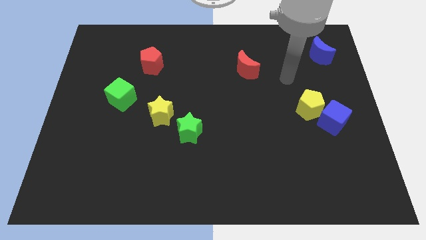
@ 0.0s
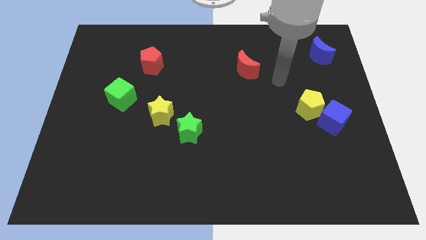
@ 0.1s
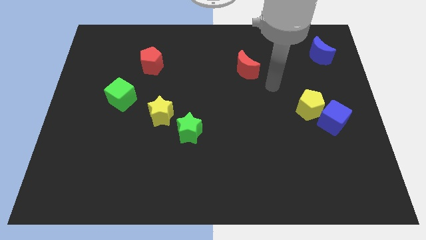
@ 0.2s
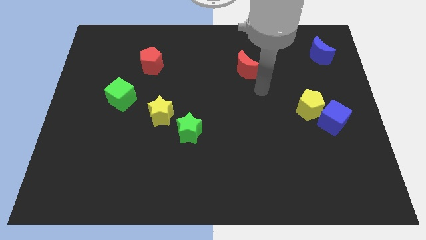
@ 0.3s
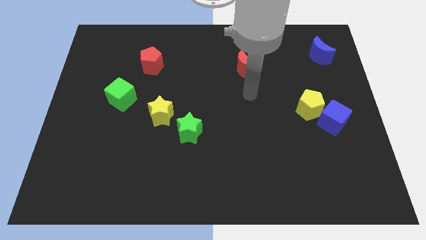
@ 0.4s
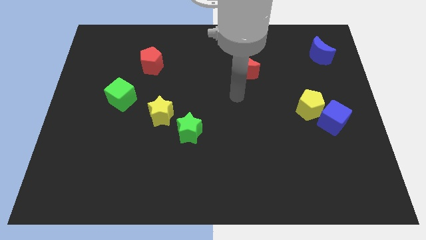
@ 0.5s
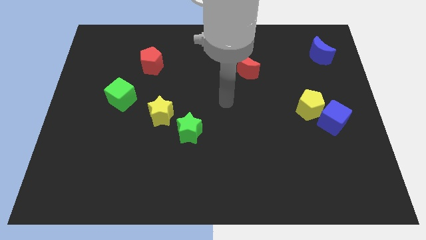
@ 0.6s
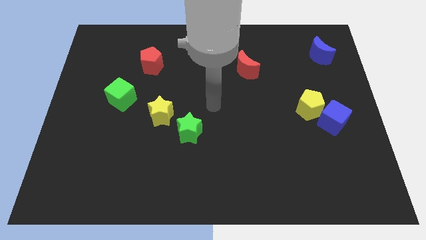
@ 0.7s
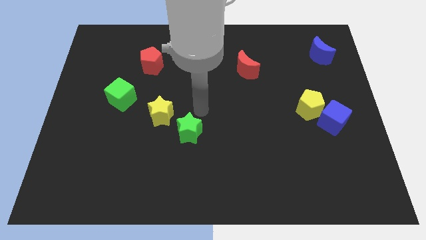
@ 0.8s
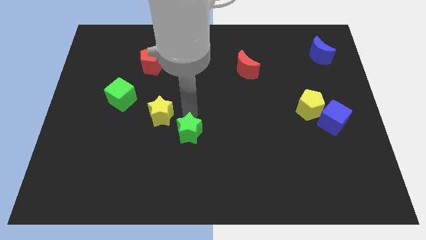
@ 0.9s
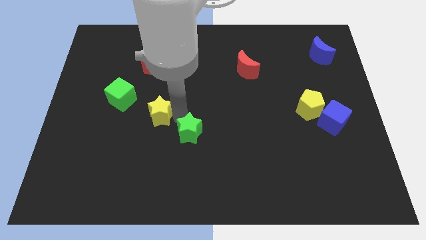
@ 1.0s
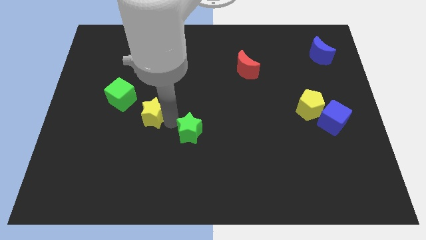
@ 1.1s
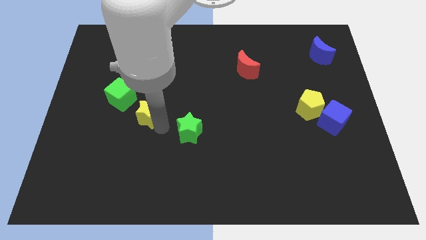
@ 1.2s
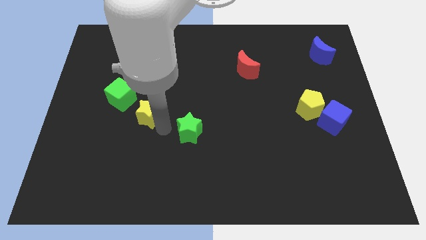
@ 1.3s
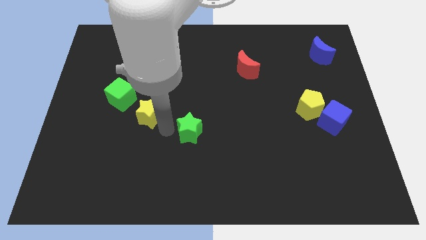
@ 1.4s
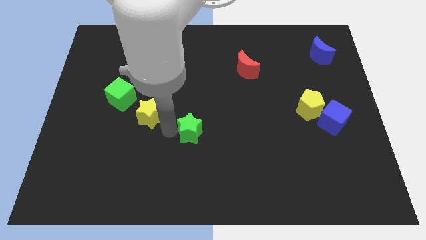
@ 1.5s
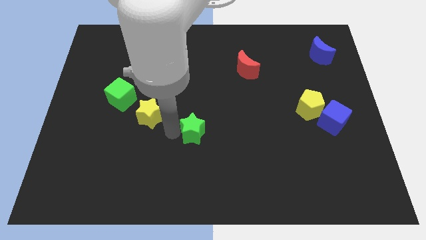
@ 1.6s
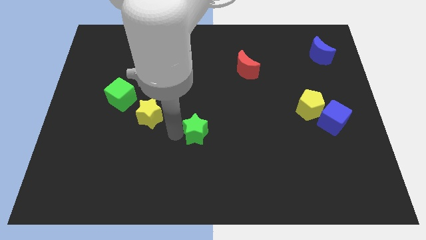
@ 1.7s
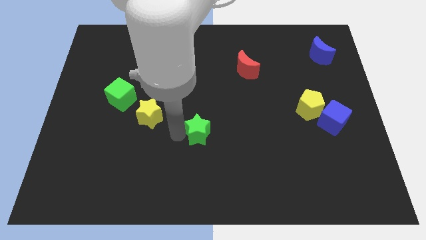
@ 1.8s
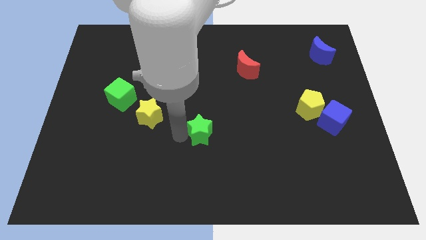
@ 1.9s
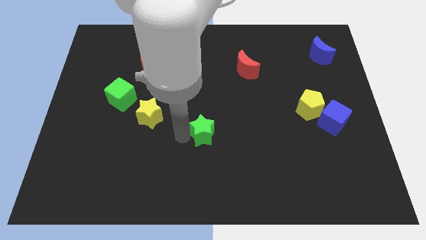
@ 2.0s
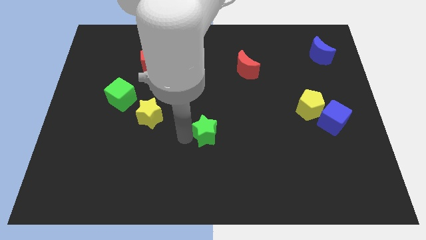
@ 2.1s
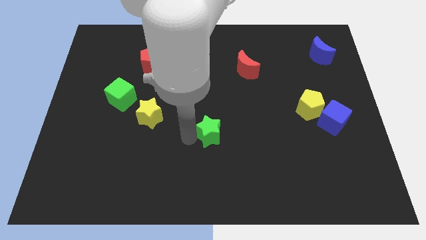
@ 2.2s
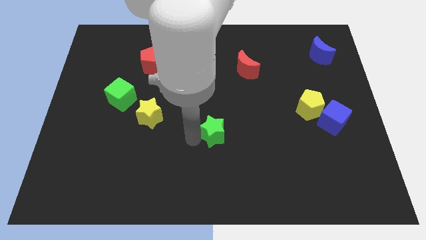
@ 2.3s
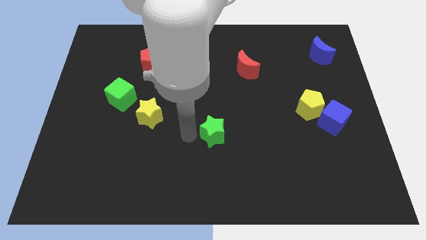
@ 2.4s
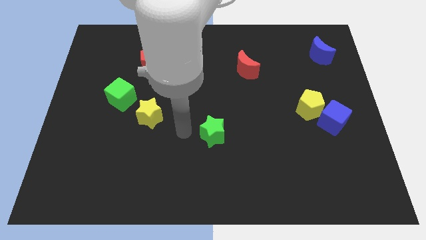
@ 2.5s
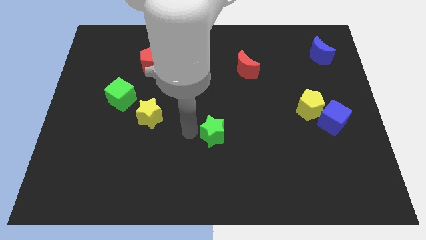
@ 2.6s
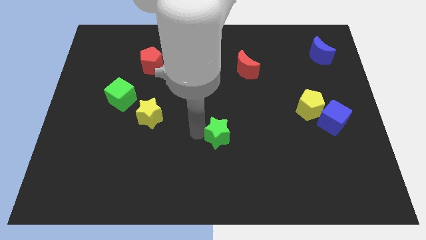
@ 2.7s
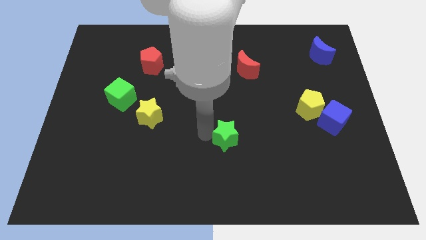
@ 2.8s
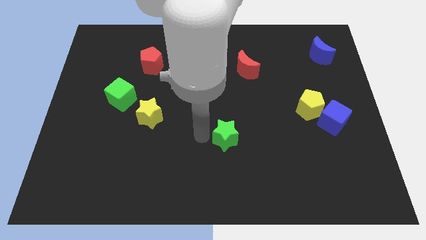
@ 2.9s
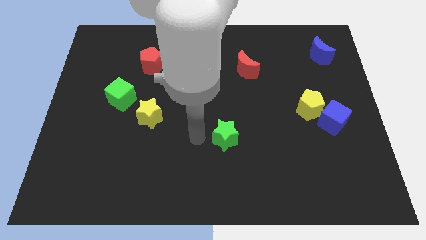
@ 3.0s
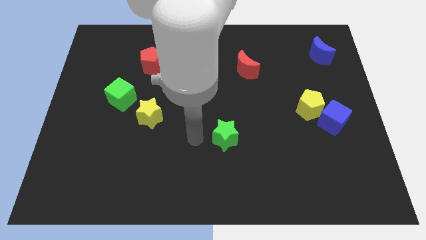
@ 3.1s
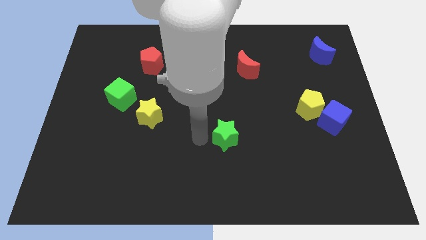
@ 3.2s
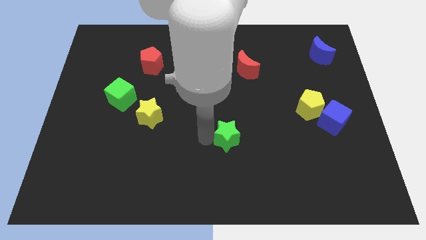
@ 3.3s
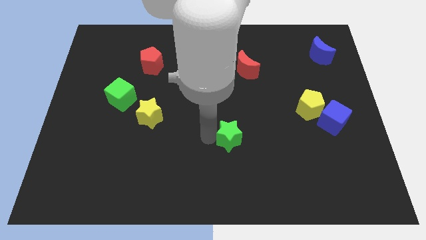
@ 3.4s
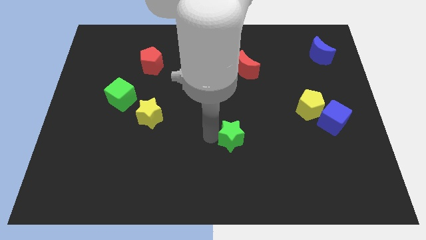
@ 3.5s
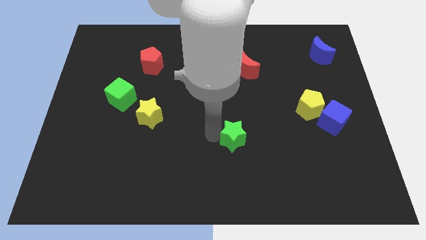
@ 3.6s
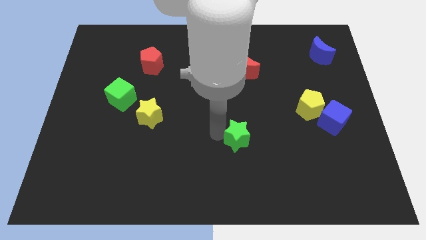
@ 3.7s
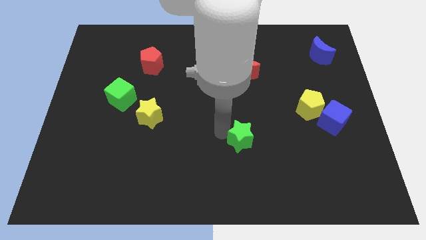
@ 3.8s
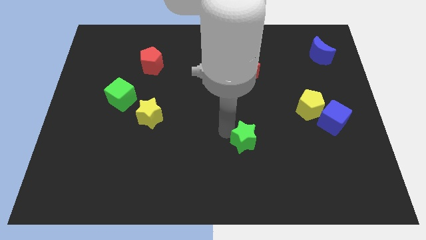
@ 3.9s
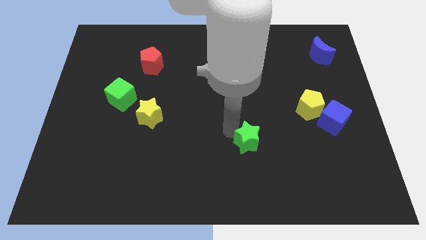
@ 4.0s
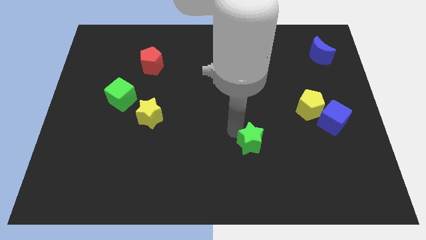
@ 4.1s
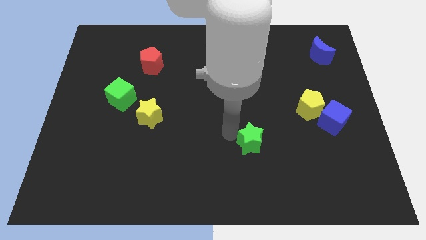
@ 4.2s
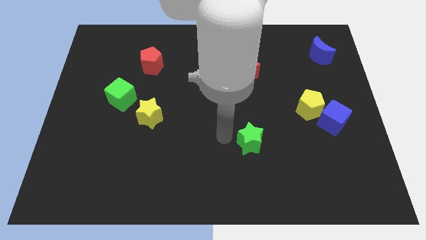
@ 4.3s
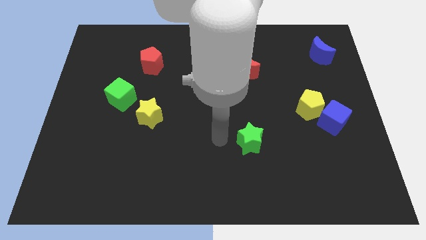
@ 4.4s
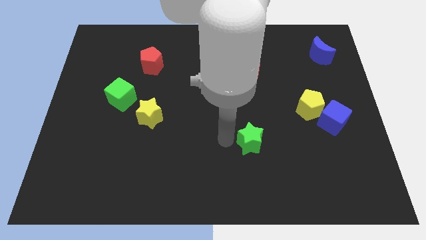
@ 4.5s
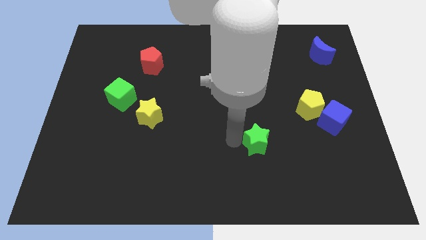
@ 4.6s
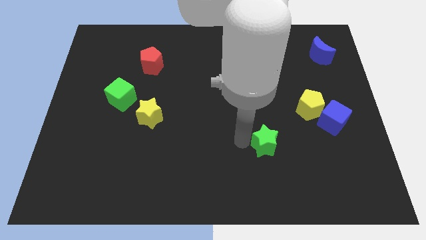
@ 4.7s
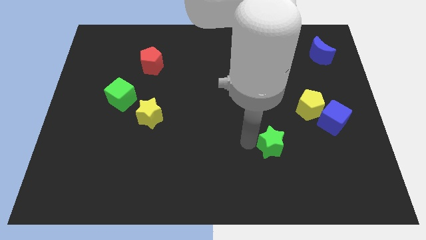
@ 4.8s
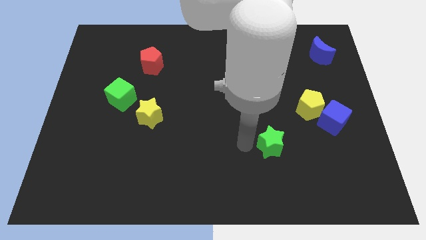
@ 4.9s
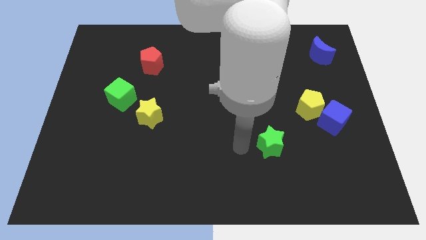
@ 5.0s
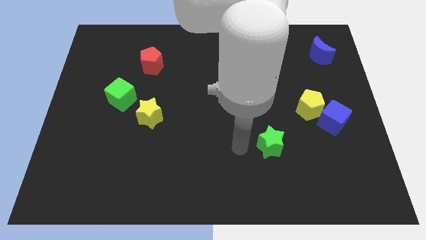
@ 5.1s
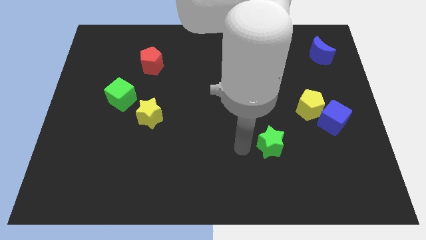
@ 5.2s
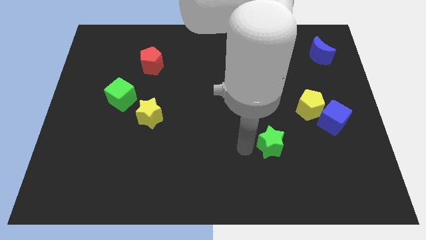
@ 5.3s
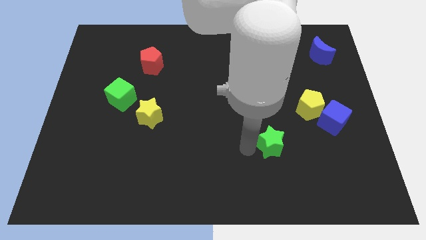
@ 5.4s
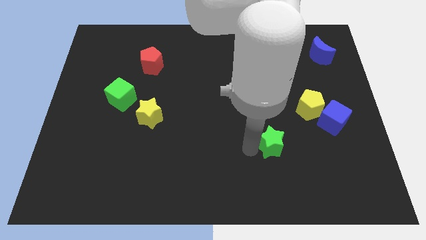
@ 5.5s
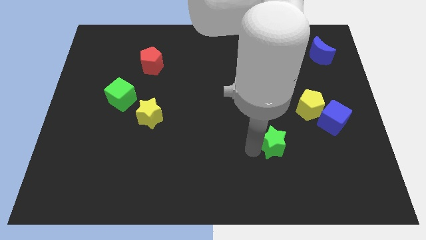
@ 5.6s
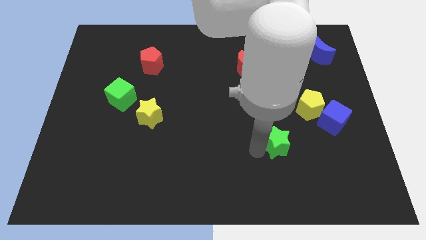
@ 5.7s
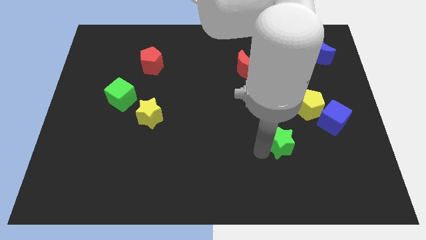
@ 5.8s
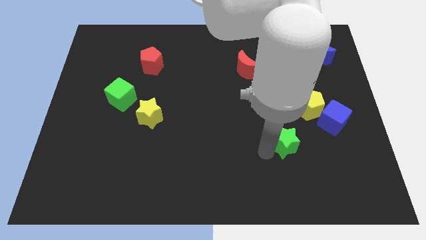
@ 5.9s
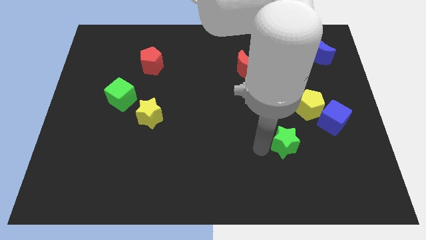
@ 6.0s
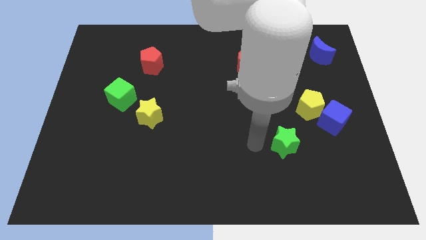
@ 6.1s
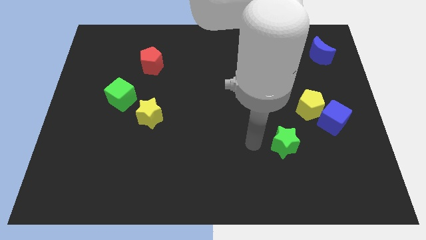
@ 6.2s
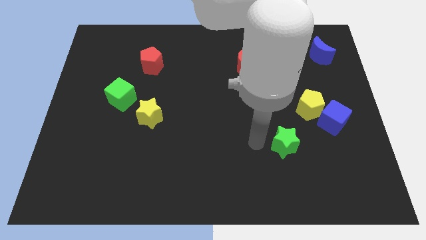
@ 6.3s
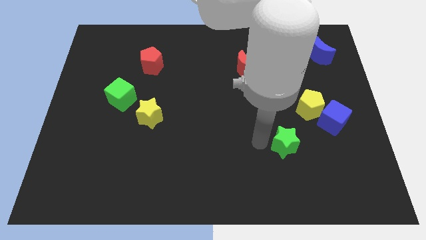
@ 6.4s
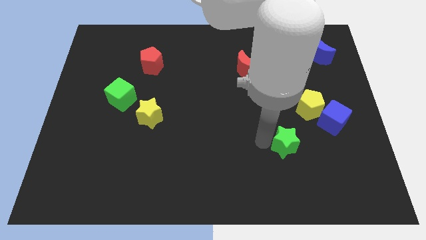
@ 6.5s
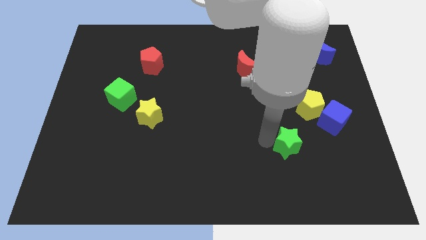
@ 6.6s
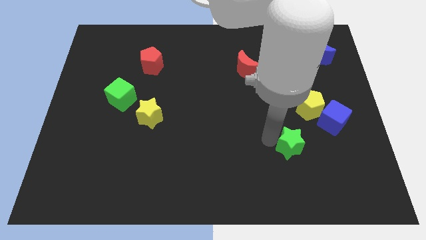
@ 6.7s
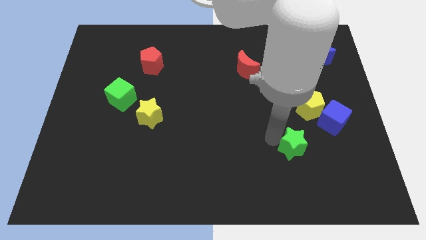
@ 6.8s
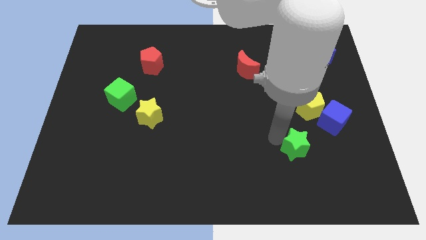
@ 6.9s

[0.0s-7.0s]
put the green star to the bottom of the yellow pentagon
